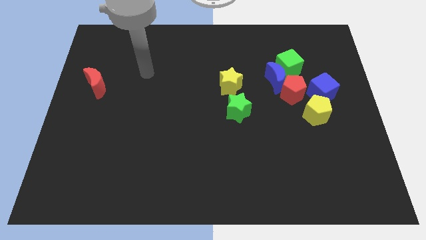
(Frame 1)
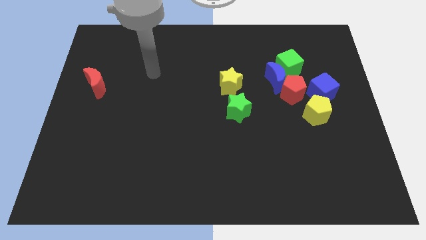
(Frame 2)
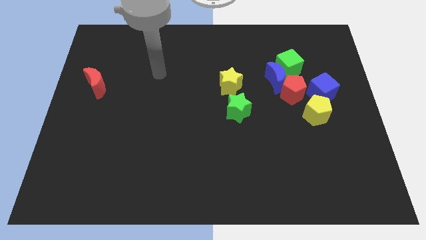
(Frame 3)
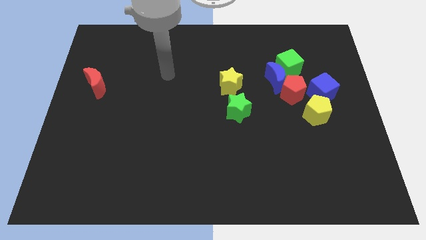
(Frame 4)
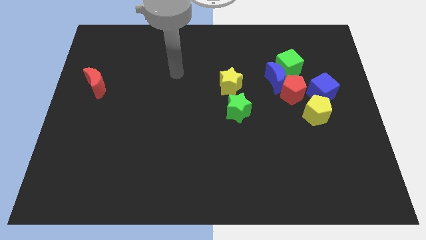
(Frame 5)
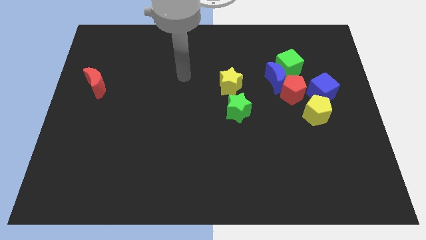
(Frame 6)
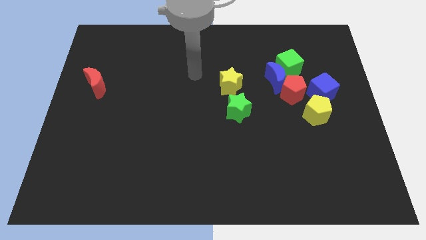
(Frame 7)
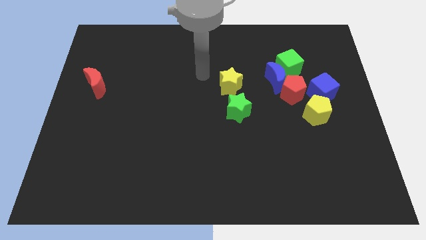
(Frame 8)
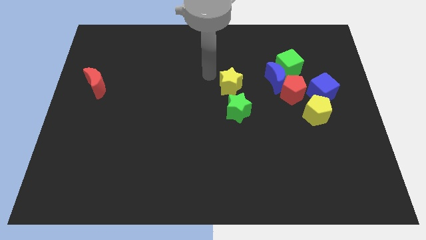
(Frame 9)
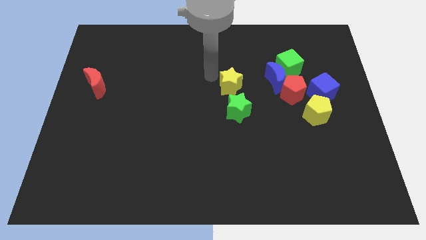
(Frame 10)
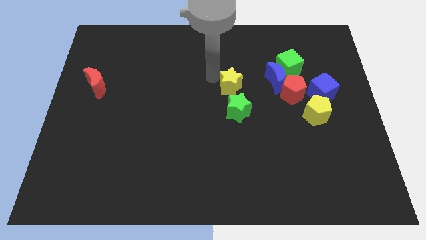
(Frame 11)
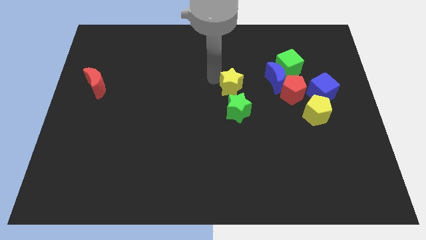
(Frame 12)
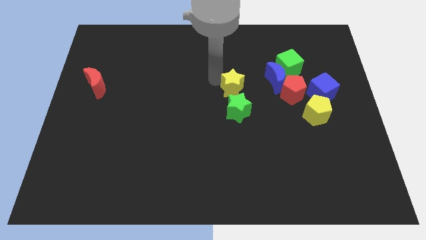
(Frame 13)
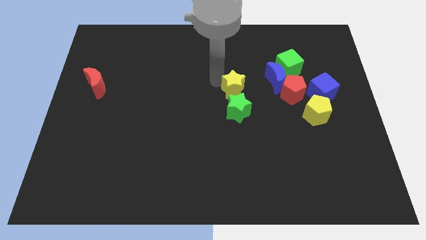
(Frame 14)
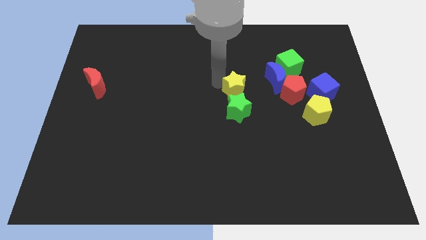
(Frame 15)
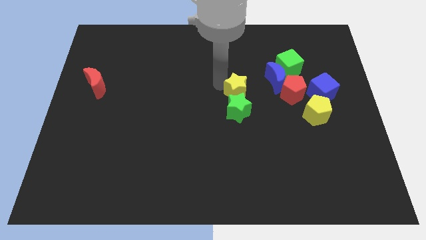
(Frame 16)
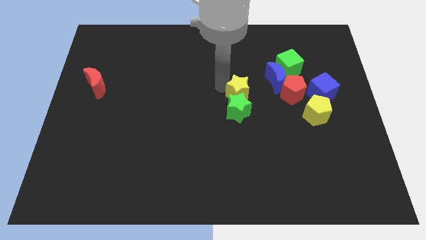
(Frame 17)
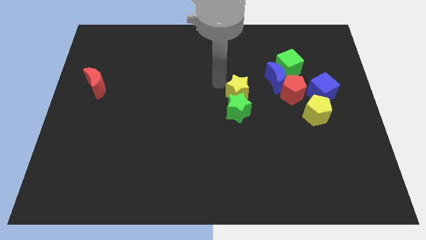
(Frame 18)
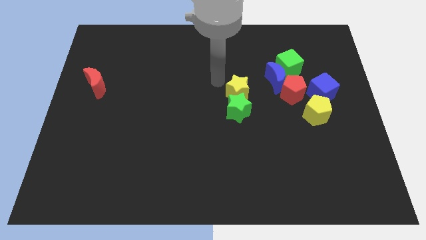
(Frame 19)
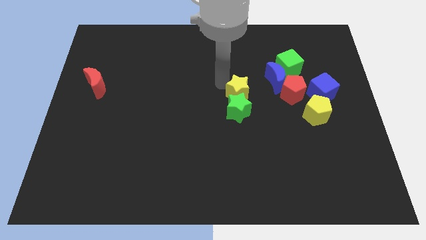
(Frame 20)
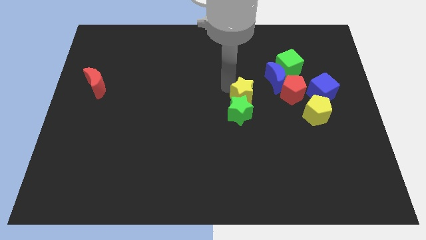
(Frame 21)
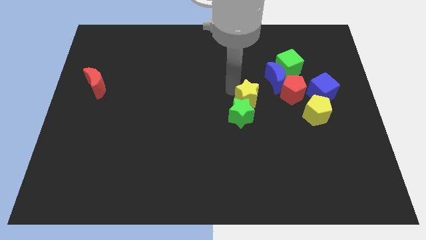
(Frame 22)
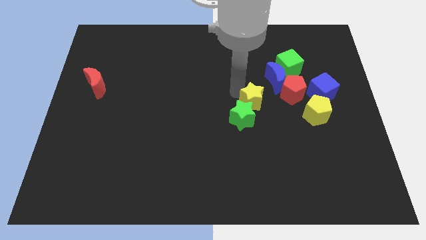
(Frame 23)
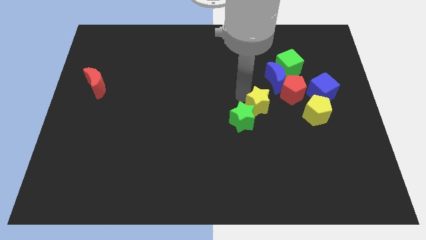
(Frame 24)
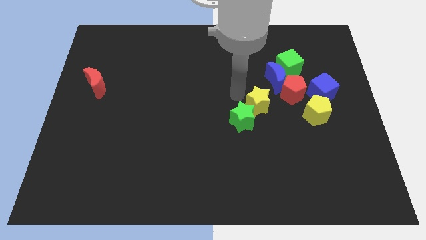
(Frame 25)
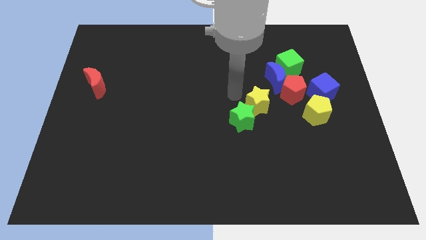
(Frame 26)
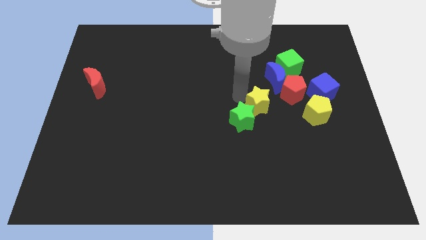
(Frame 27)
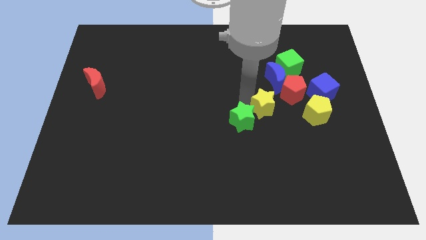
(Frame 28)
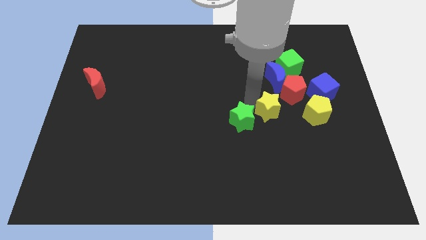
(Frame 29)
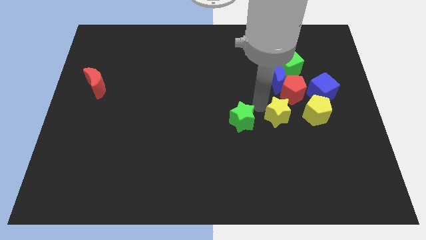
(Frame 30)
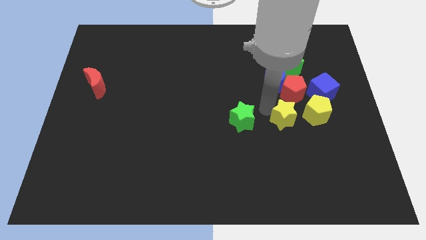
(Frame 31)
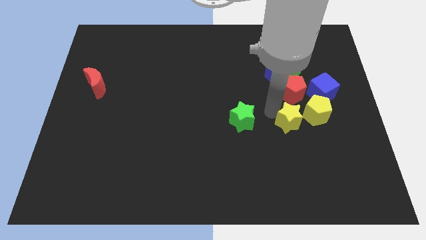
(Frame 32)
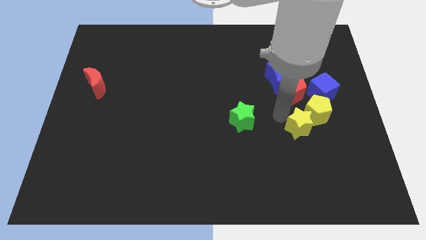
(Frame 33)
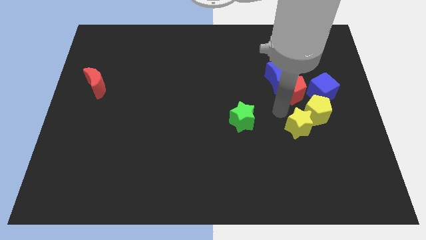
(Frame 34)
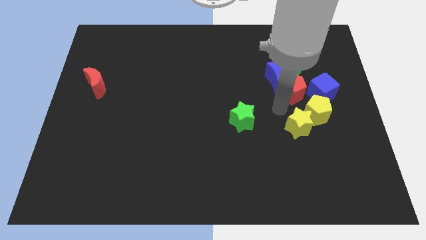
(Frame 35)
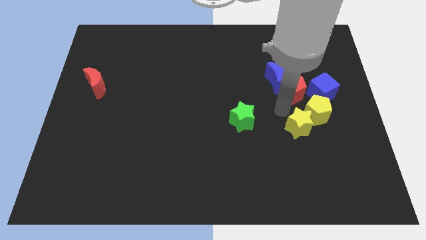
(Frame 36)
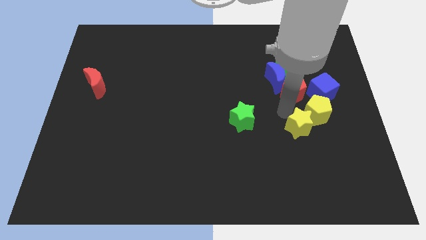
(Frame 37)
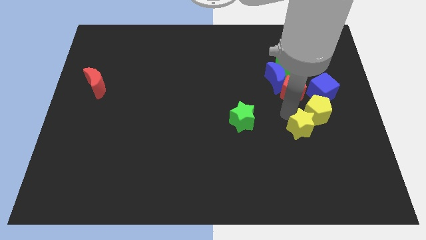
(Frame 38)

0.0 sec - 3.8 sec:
push the yellow star diagonally down and to the right

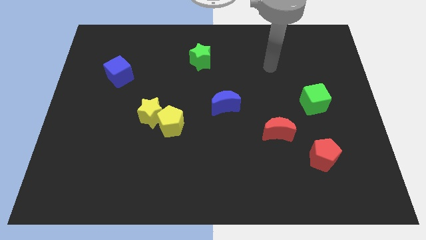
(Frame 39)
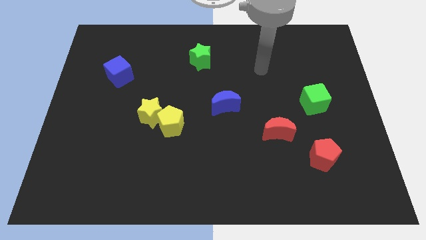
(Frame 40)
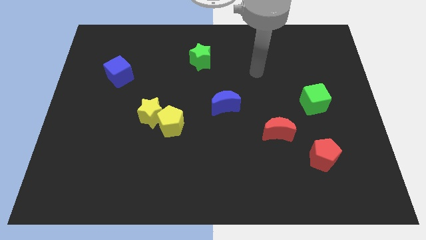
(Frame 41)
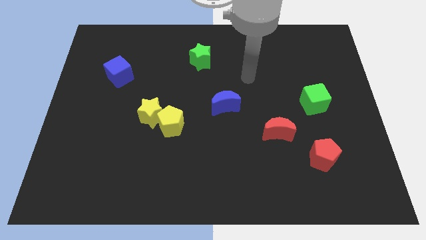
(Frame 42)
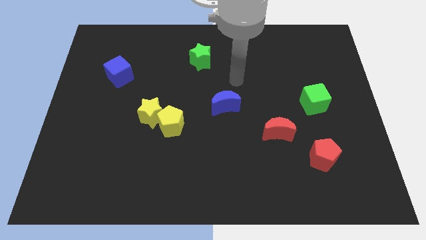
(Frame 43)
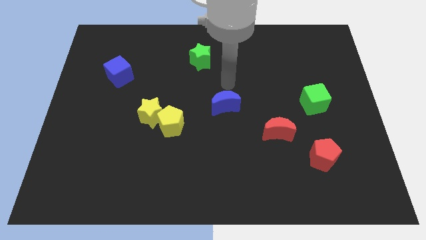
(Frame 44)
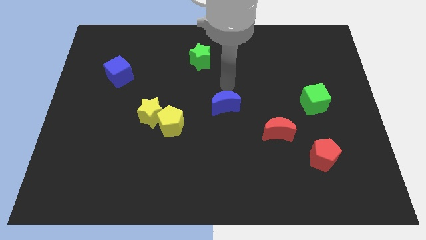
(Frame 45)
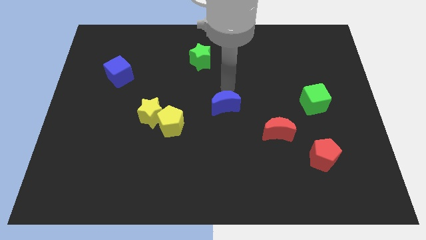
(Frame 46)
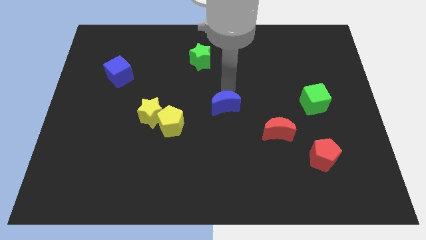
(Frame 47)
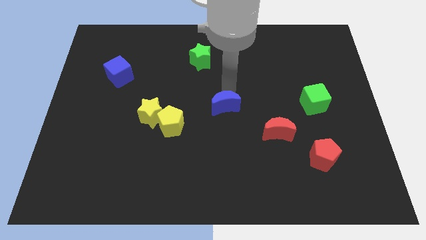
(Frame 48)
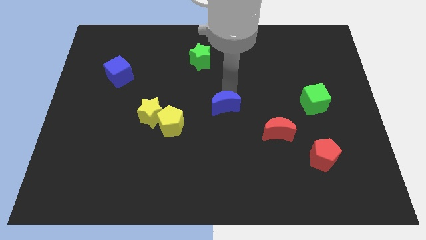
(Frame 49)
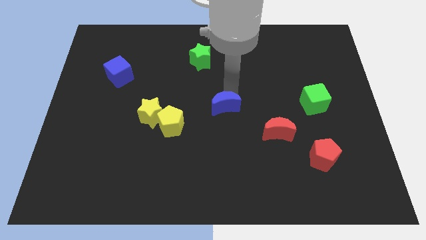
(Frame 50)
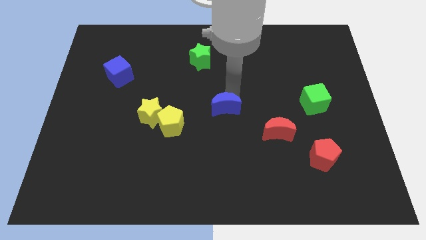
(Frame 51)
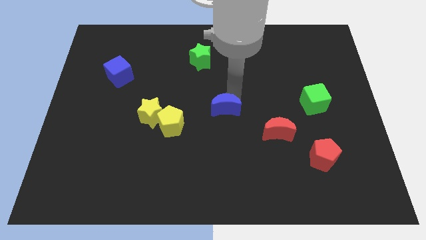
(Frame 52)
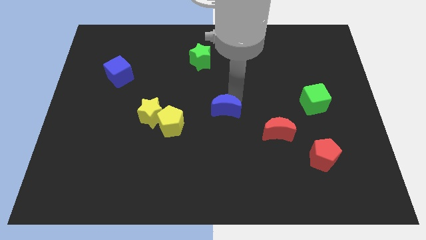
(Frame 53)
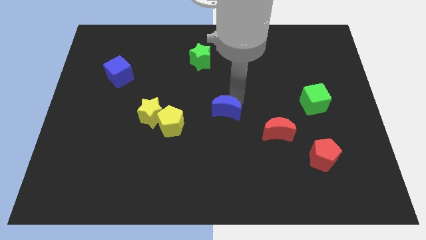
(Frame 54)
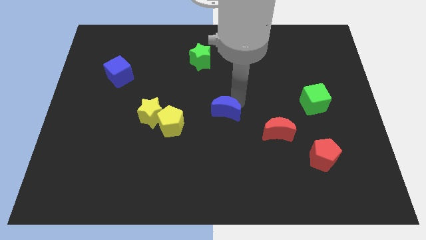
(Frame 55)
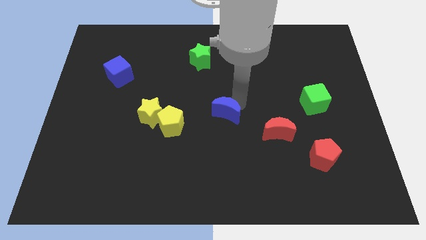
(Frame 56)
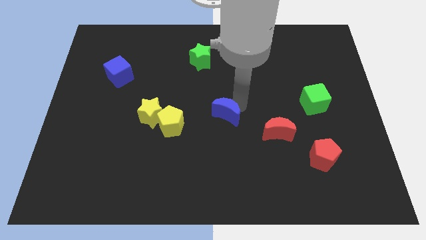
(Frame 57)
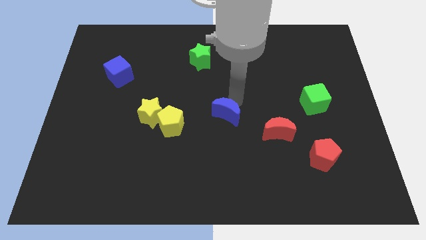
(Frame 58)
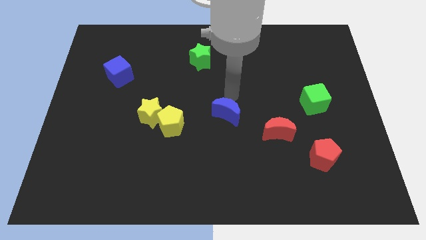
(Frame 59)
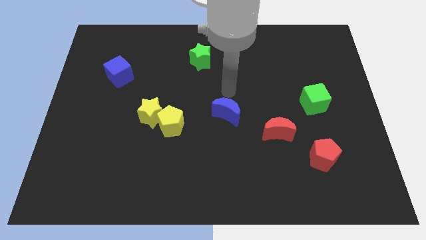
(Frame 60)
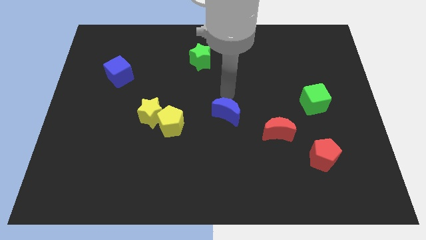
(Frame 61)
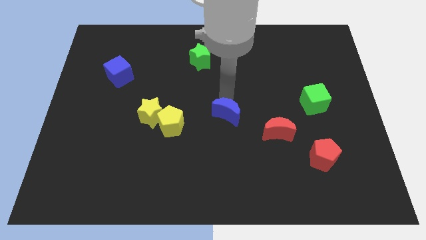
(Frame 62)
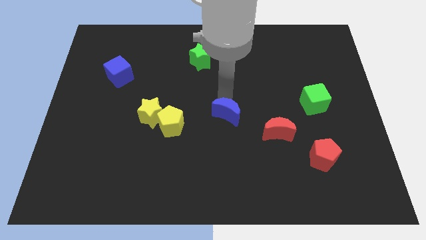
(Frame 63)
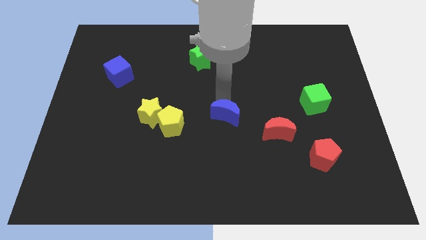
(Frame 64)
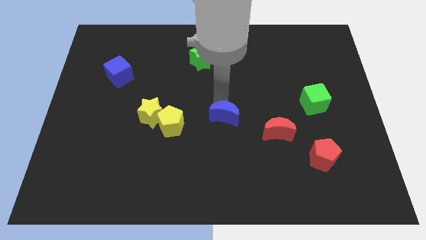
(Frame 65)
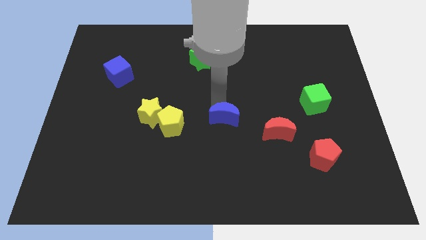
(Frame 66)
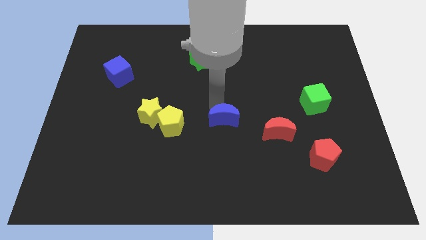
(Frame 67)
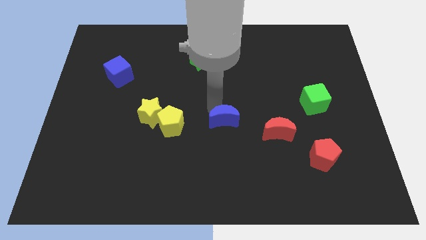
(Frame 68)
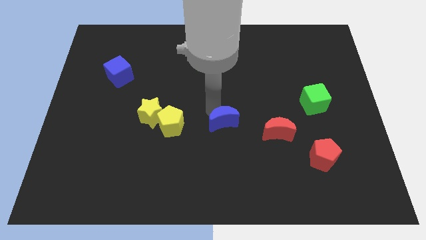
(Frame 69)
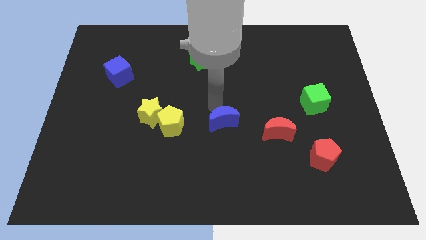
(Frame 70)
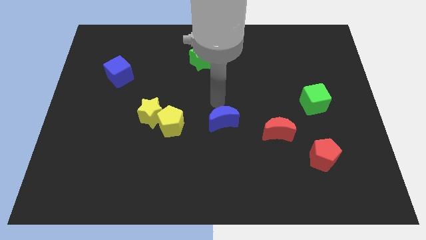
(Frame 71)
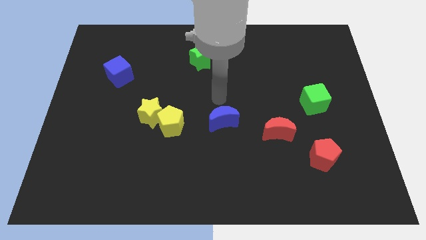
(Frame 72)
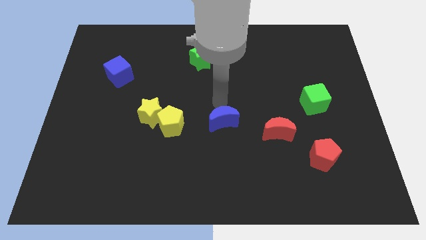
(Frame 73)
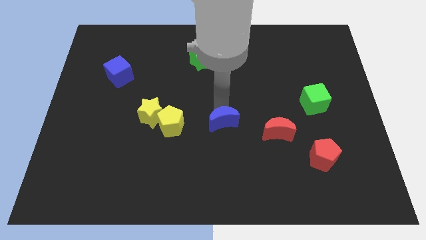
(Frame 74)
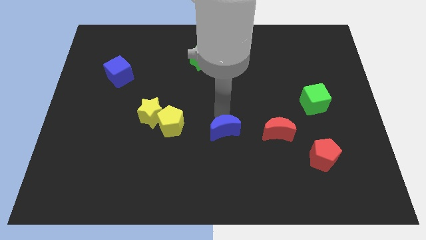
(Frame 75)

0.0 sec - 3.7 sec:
slide the blue moon downwards somewhat

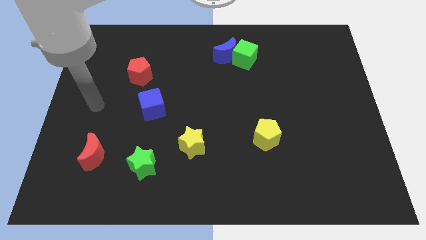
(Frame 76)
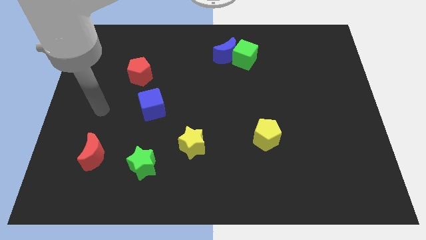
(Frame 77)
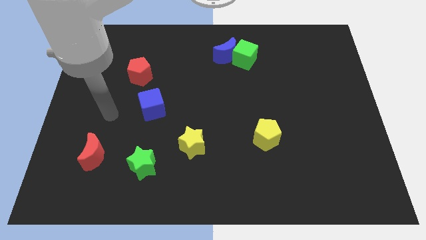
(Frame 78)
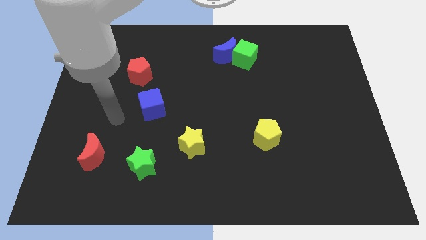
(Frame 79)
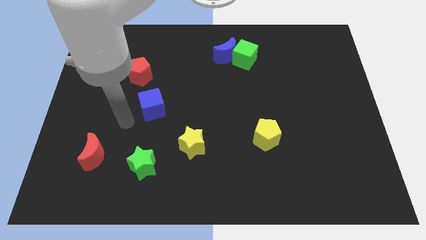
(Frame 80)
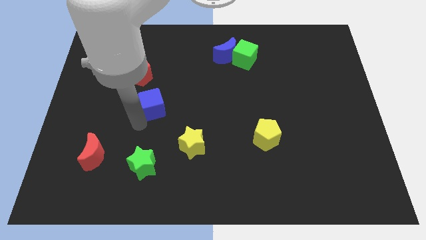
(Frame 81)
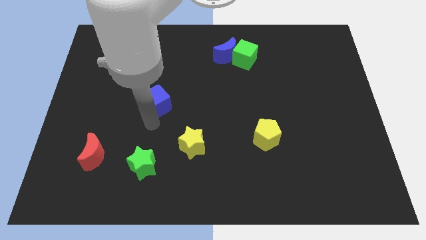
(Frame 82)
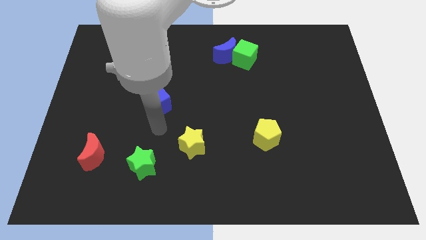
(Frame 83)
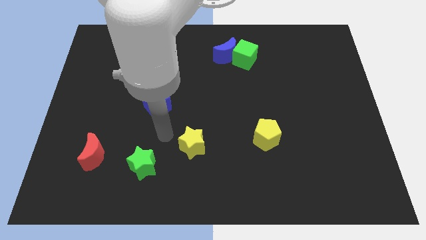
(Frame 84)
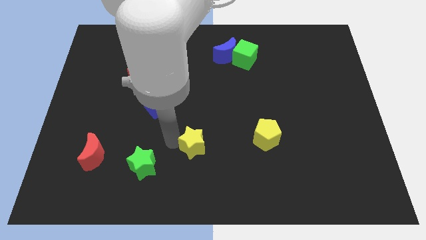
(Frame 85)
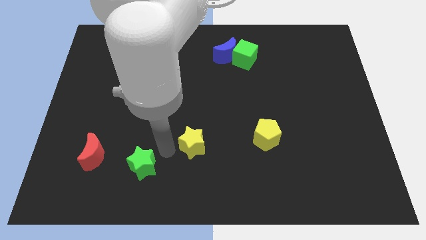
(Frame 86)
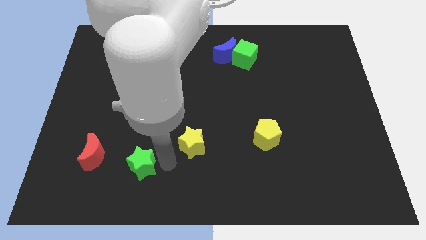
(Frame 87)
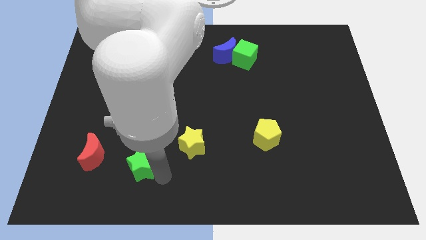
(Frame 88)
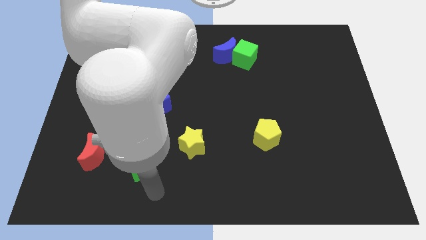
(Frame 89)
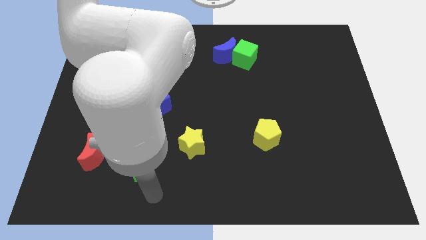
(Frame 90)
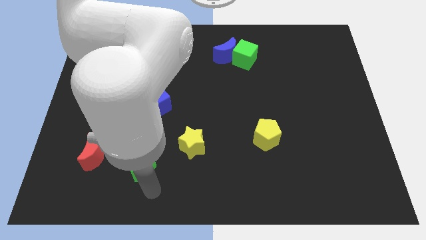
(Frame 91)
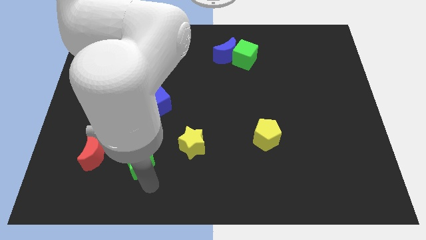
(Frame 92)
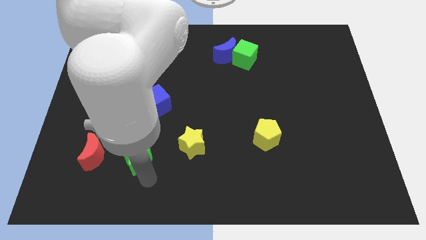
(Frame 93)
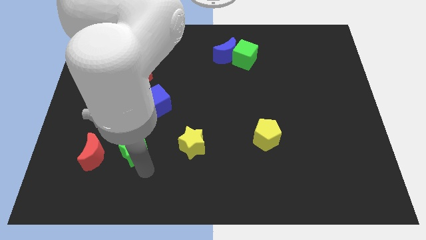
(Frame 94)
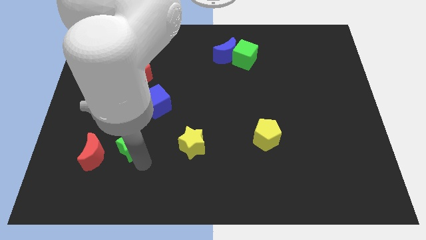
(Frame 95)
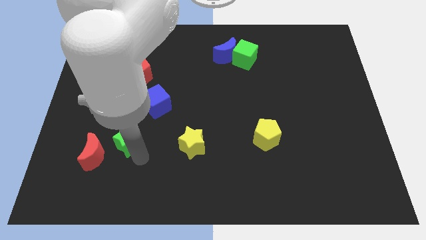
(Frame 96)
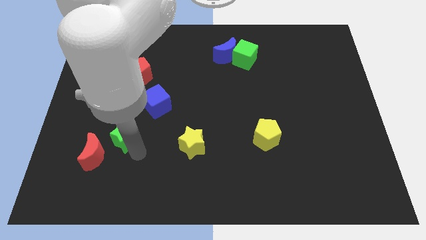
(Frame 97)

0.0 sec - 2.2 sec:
move the green star slightly diagonally up and left
